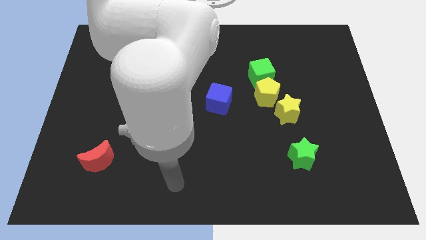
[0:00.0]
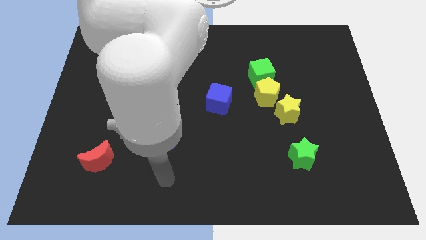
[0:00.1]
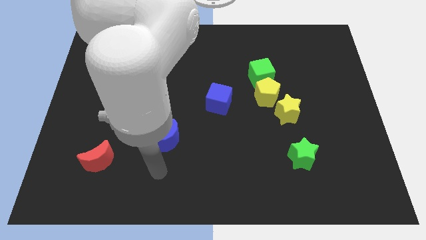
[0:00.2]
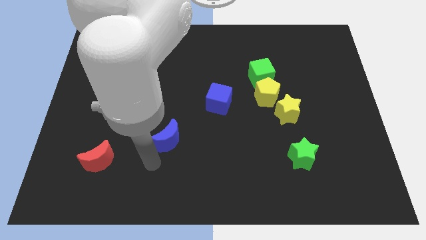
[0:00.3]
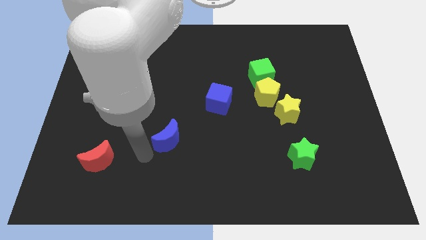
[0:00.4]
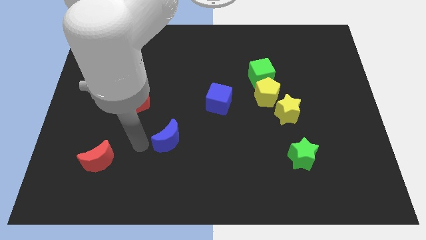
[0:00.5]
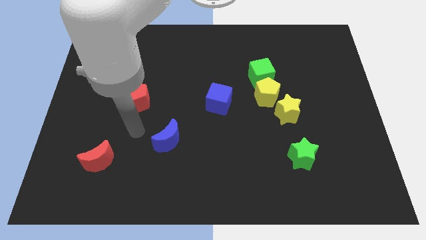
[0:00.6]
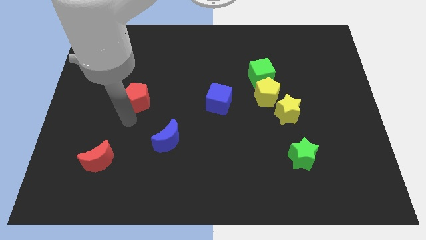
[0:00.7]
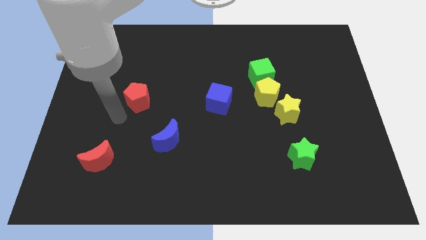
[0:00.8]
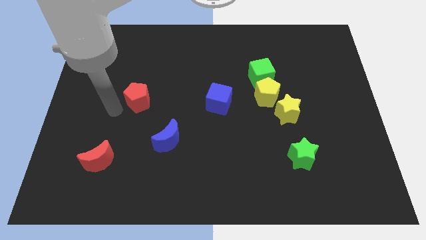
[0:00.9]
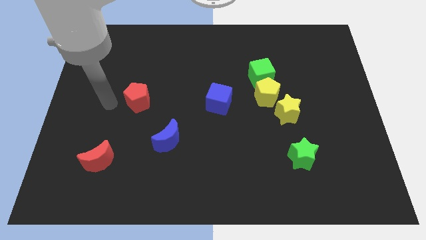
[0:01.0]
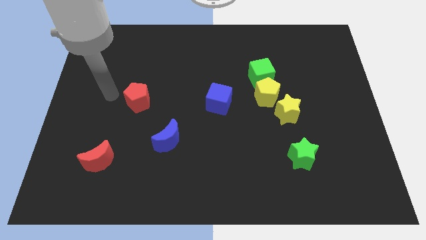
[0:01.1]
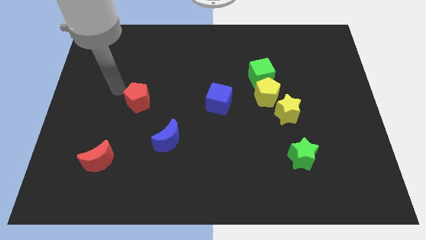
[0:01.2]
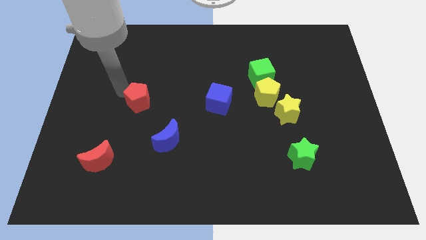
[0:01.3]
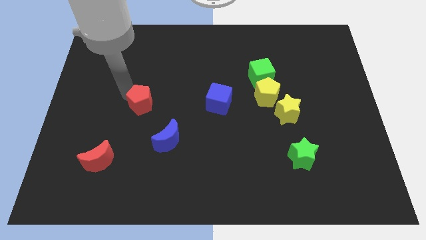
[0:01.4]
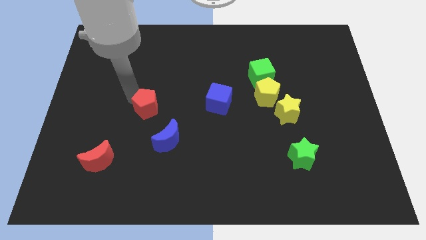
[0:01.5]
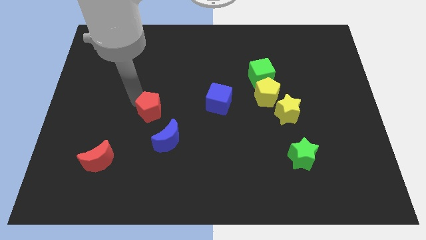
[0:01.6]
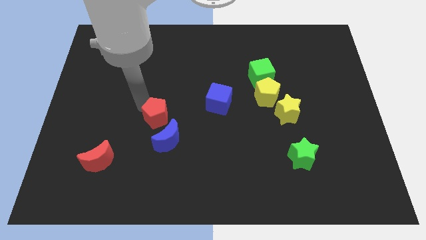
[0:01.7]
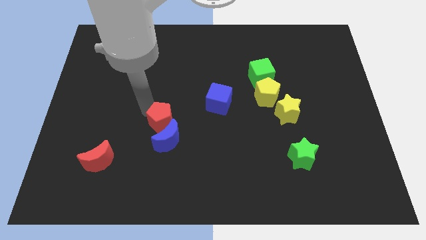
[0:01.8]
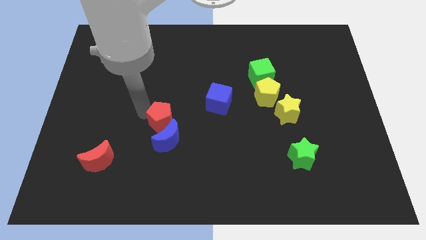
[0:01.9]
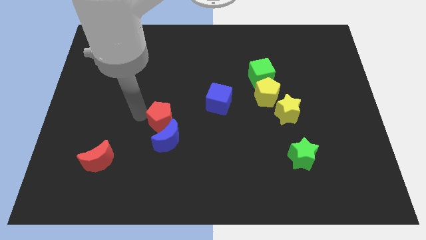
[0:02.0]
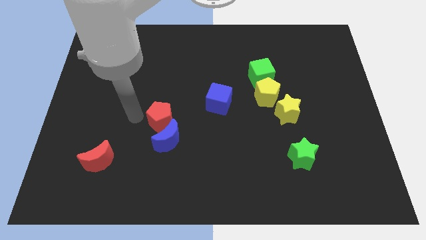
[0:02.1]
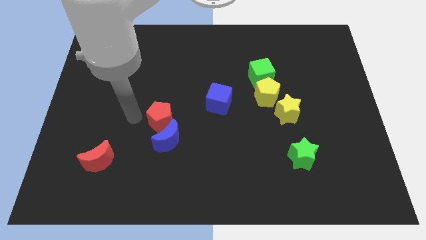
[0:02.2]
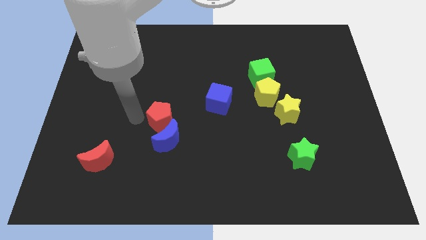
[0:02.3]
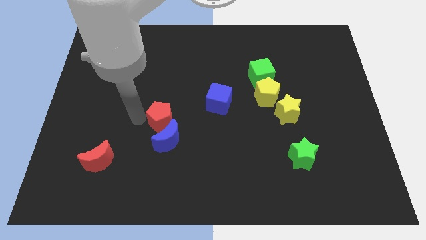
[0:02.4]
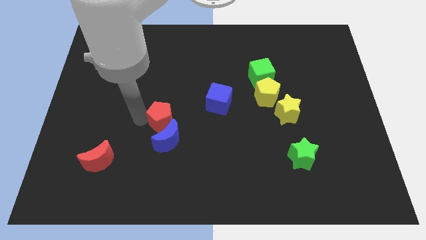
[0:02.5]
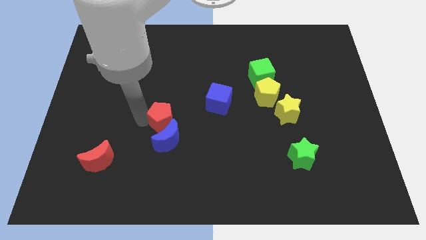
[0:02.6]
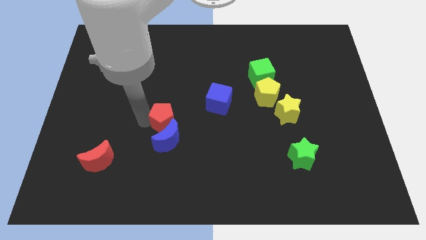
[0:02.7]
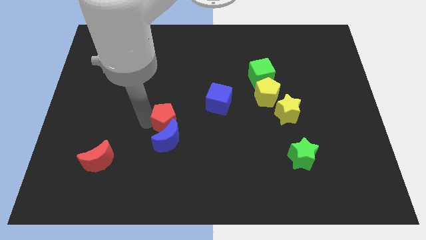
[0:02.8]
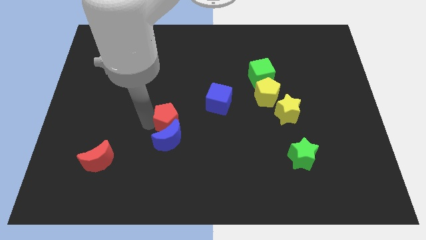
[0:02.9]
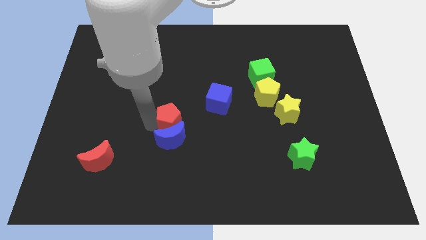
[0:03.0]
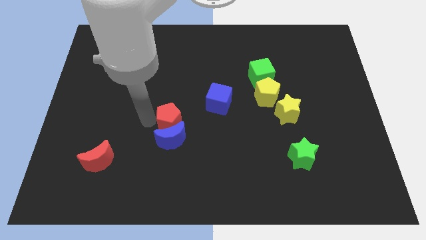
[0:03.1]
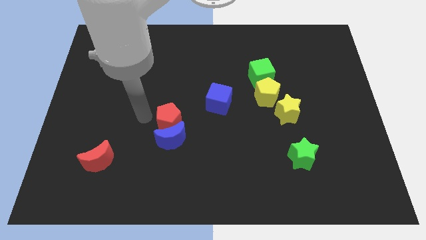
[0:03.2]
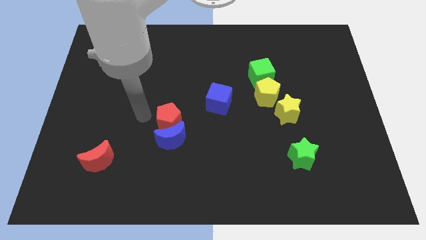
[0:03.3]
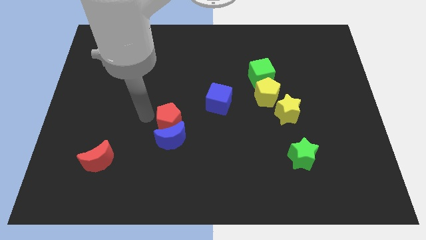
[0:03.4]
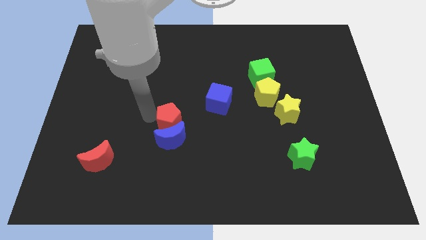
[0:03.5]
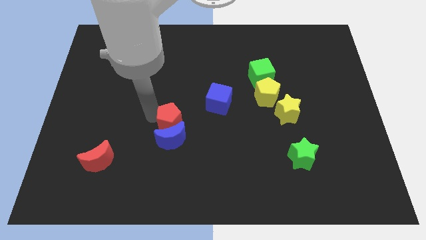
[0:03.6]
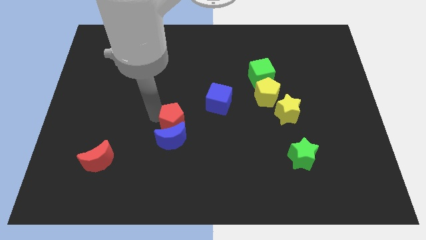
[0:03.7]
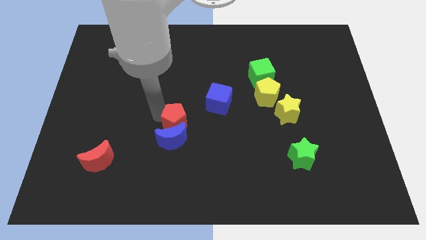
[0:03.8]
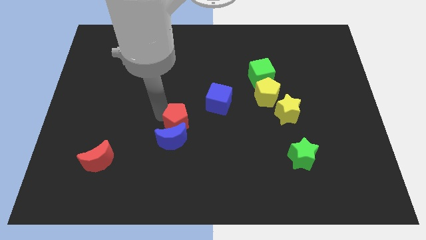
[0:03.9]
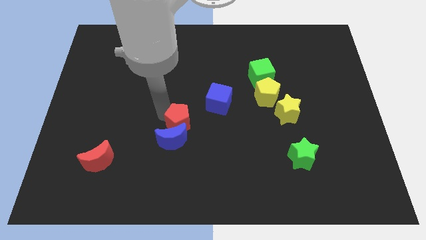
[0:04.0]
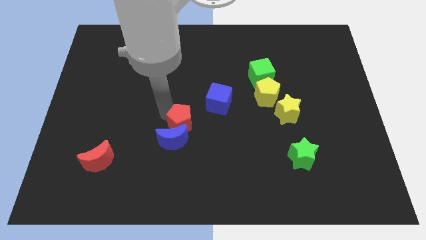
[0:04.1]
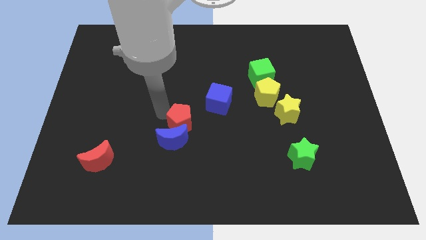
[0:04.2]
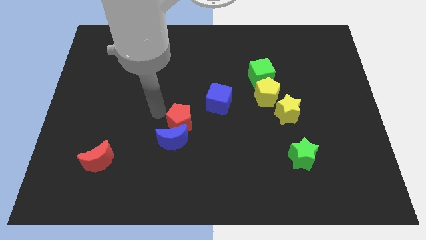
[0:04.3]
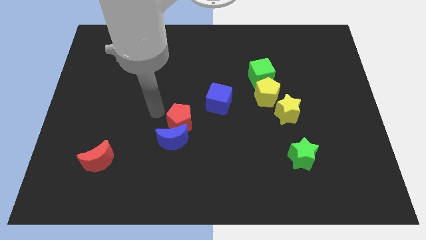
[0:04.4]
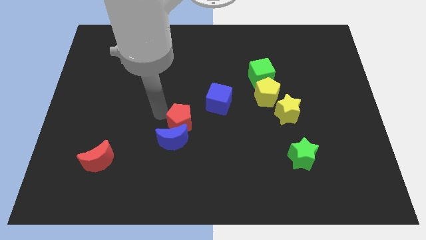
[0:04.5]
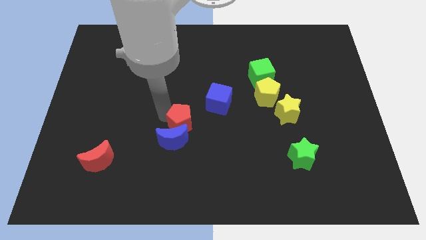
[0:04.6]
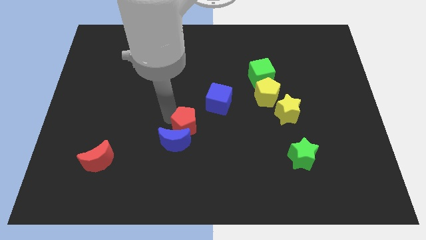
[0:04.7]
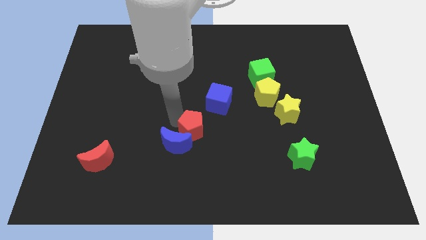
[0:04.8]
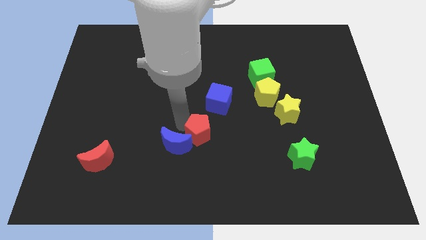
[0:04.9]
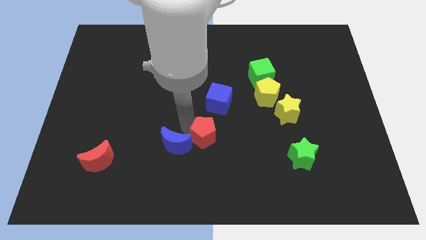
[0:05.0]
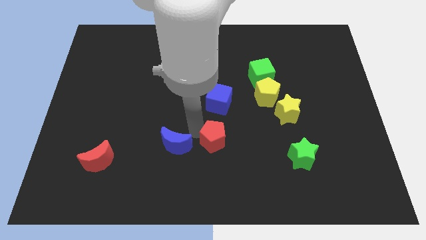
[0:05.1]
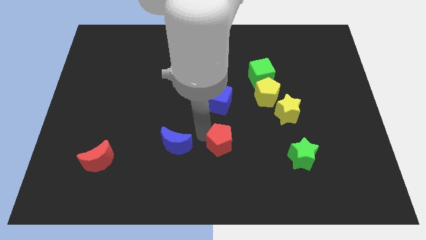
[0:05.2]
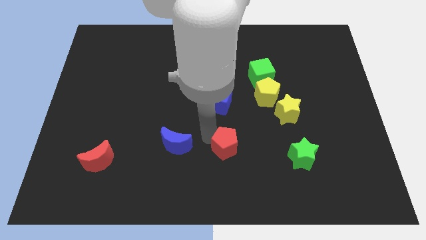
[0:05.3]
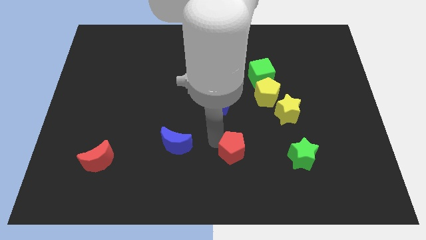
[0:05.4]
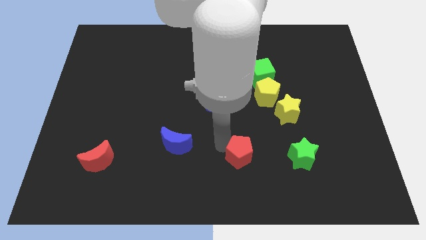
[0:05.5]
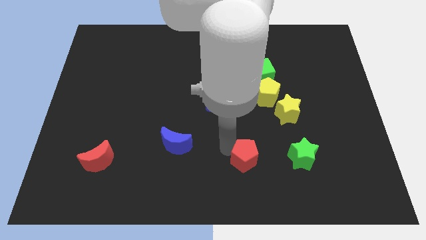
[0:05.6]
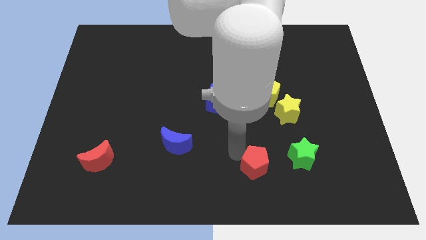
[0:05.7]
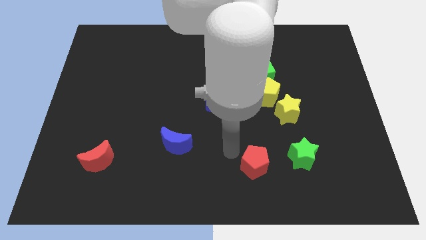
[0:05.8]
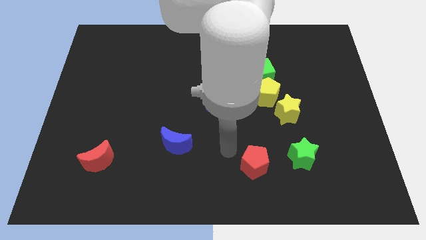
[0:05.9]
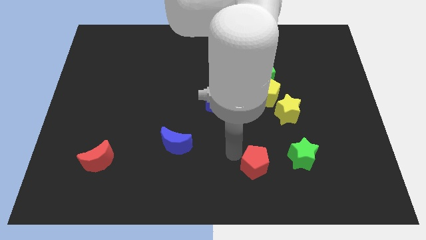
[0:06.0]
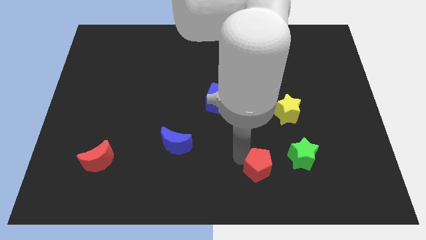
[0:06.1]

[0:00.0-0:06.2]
move the red pentagon diagonally down and to the left of the green star

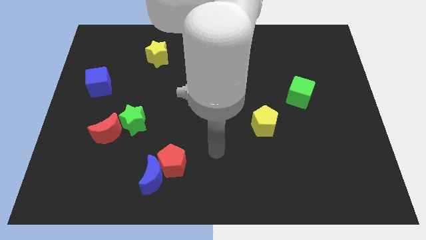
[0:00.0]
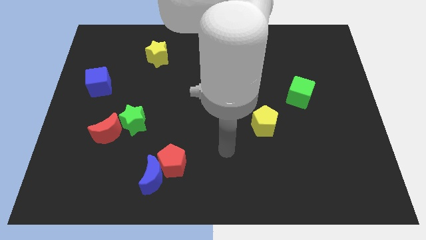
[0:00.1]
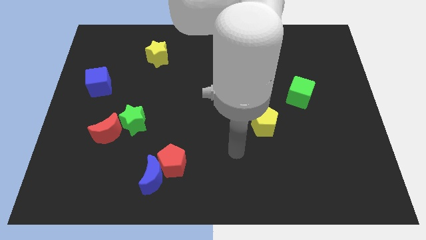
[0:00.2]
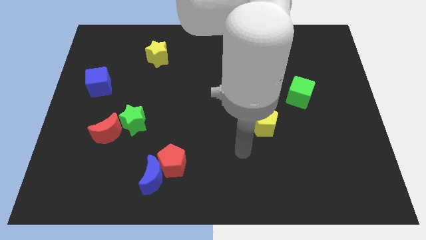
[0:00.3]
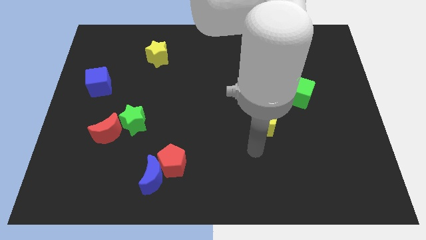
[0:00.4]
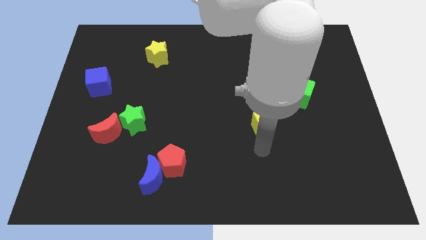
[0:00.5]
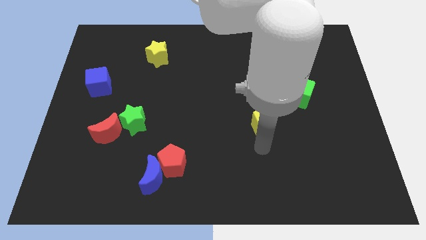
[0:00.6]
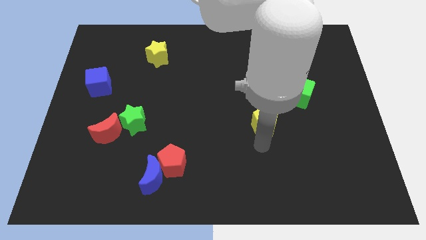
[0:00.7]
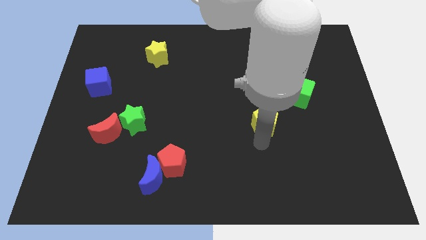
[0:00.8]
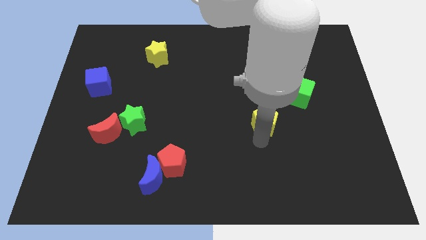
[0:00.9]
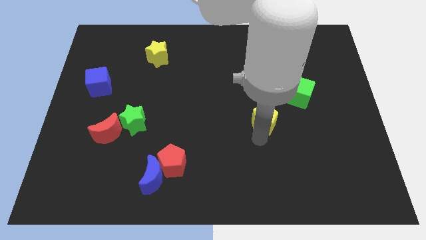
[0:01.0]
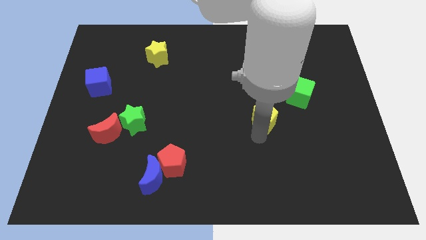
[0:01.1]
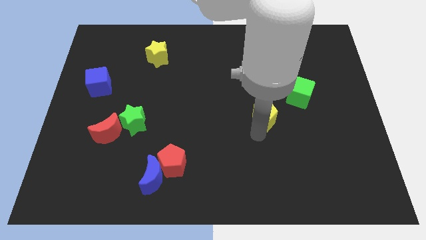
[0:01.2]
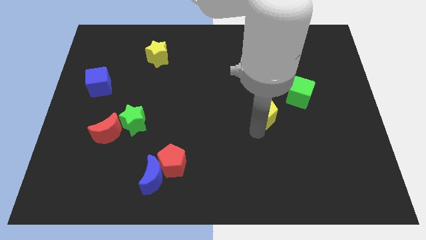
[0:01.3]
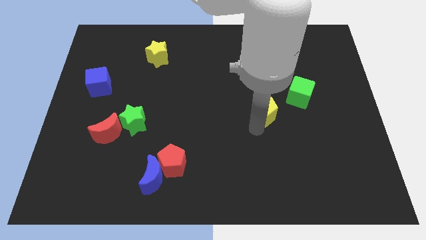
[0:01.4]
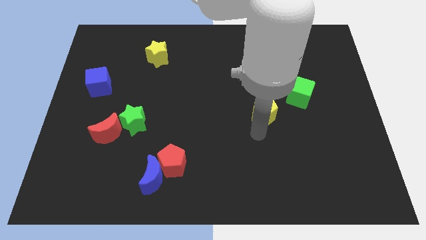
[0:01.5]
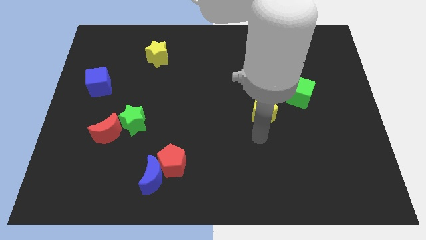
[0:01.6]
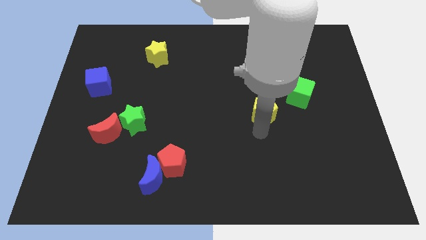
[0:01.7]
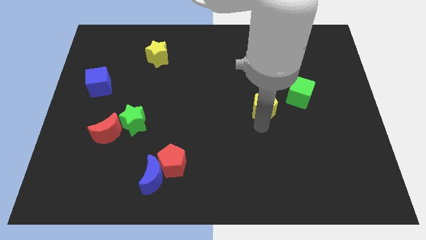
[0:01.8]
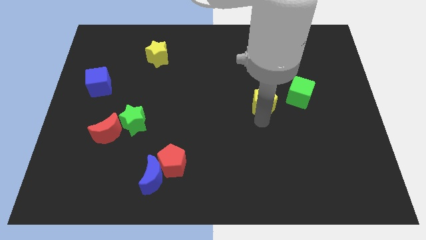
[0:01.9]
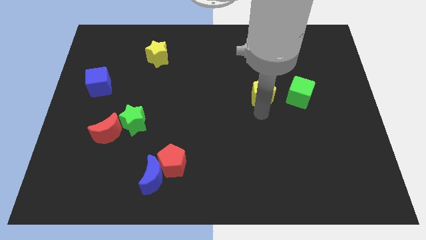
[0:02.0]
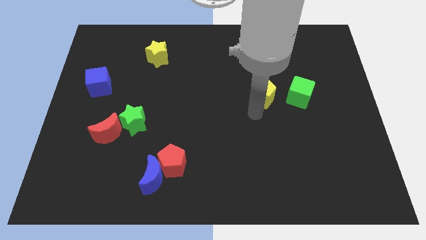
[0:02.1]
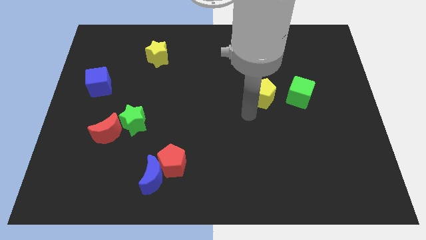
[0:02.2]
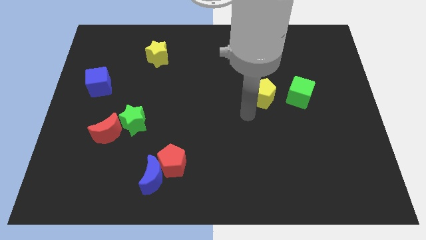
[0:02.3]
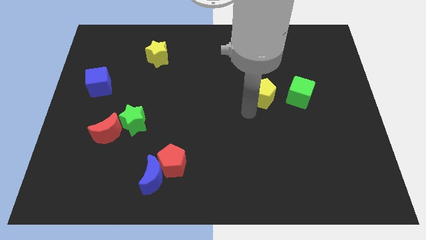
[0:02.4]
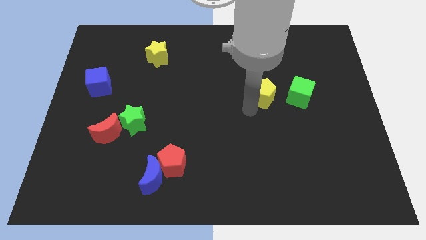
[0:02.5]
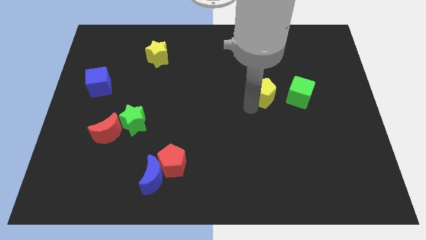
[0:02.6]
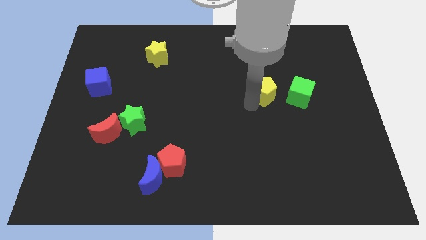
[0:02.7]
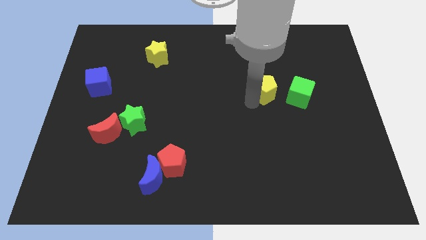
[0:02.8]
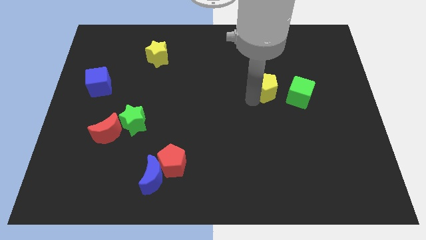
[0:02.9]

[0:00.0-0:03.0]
put the yellow pentagon diagonally up and to the left of the green cube
